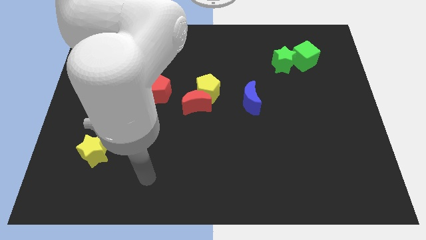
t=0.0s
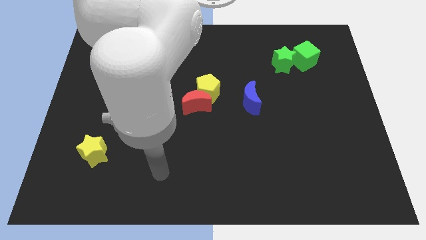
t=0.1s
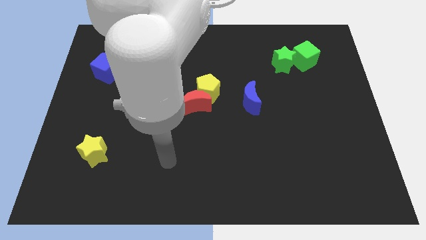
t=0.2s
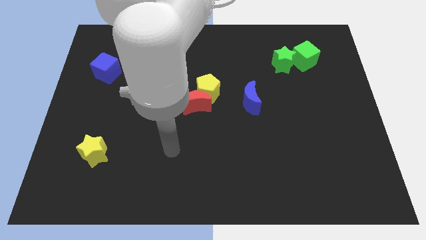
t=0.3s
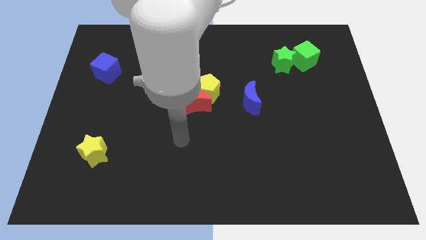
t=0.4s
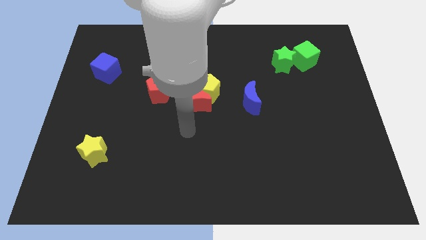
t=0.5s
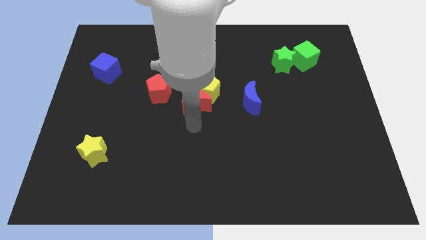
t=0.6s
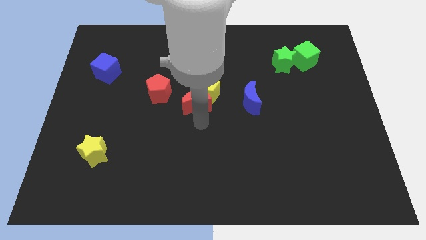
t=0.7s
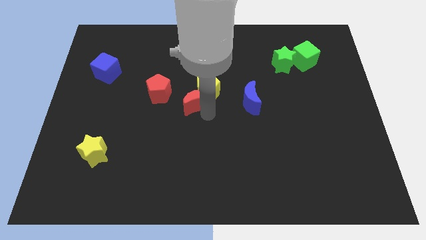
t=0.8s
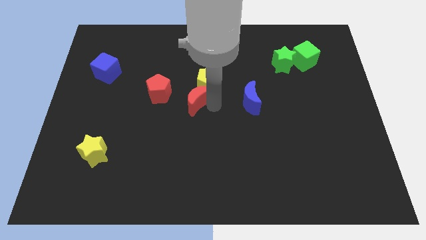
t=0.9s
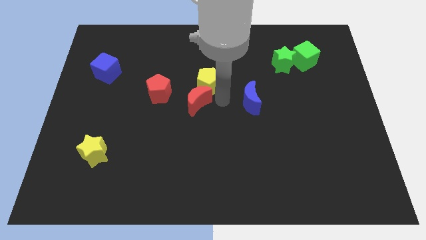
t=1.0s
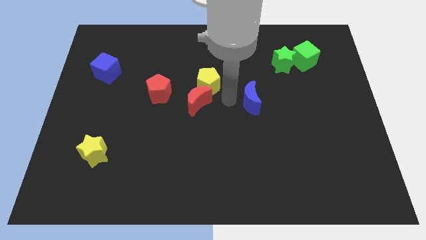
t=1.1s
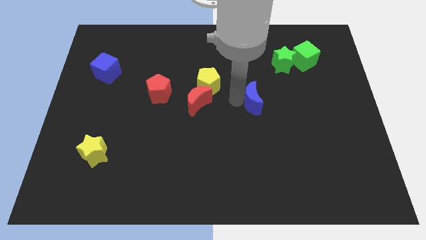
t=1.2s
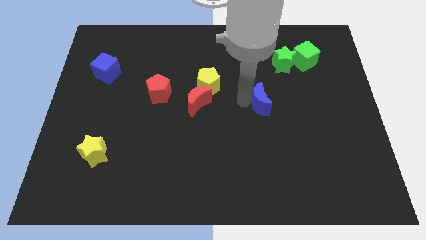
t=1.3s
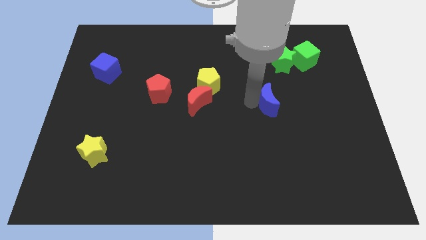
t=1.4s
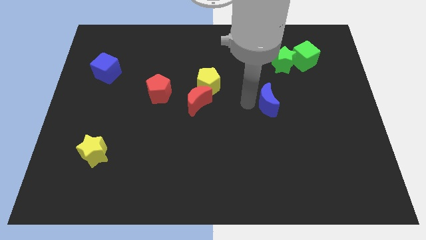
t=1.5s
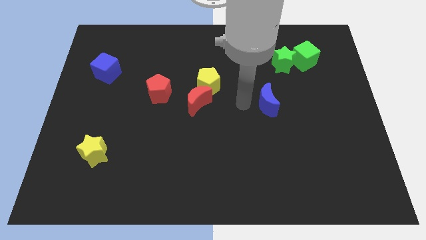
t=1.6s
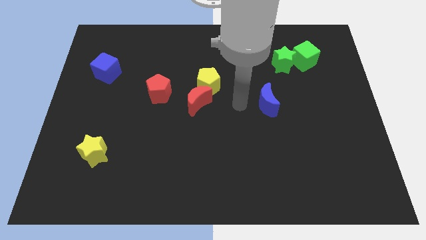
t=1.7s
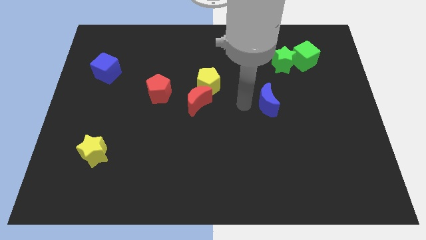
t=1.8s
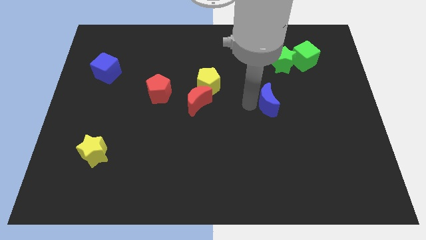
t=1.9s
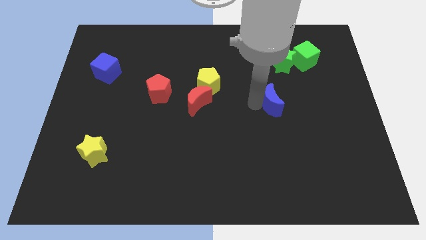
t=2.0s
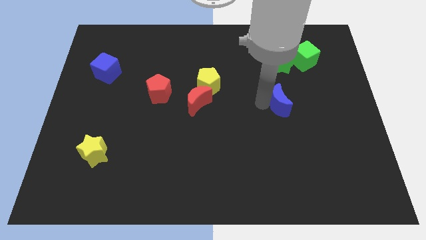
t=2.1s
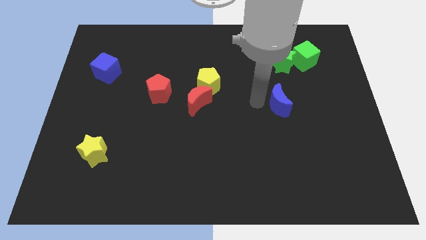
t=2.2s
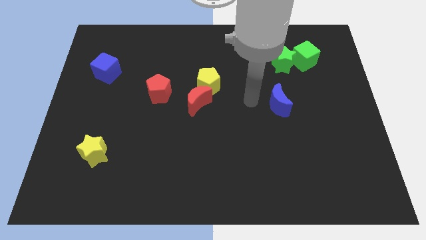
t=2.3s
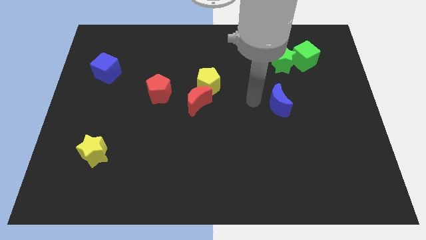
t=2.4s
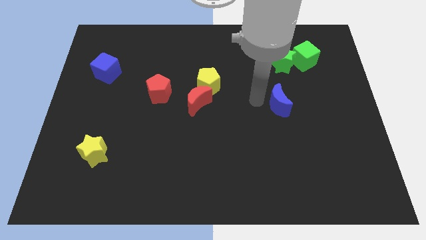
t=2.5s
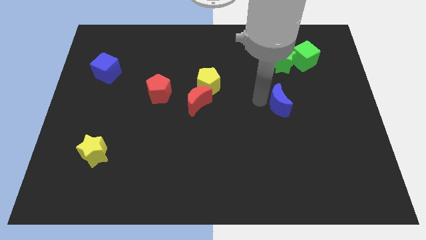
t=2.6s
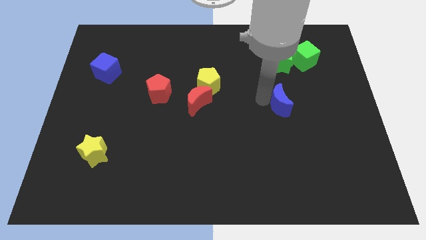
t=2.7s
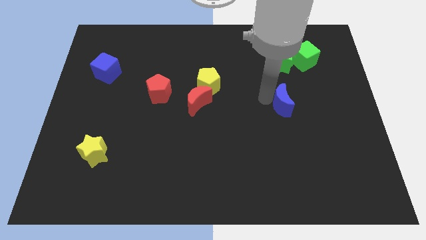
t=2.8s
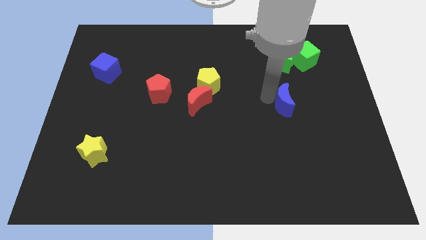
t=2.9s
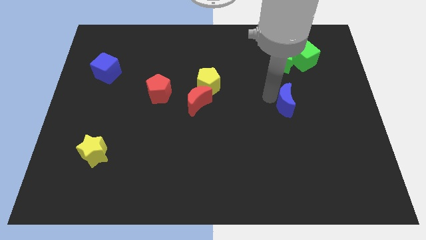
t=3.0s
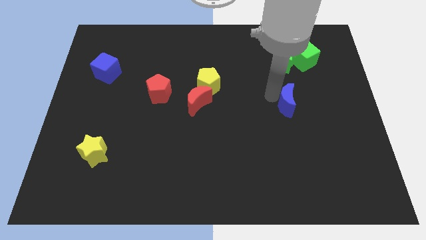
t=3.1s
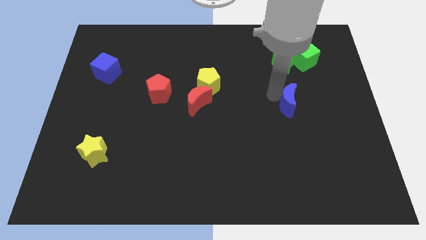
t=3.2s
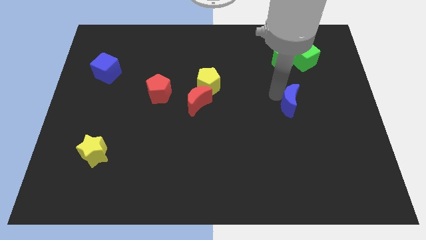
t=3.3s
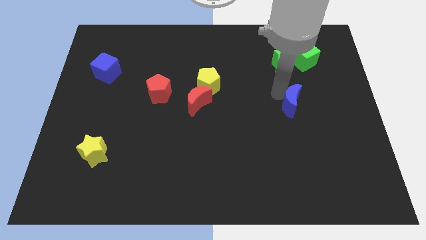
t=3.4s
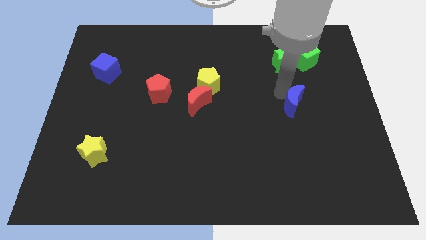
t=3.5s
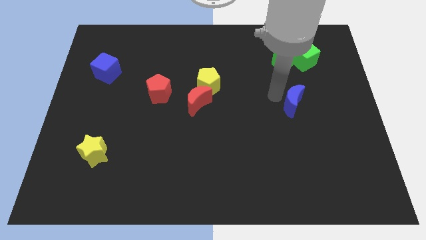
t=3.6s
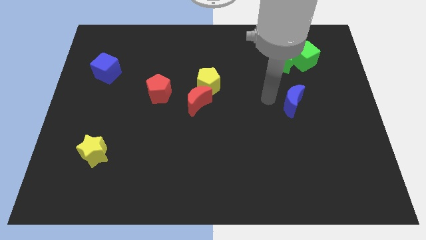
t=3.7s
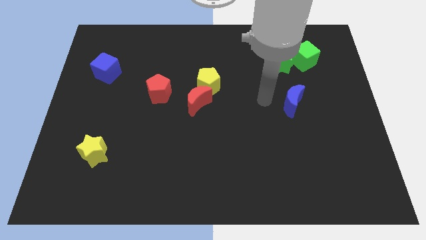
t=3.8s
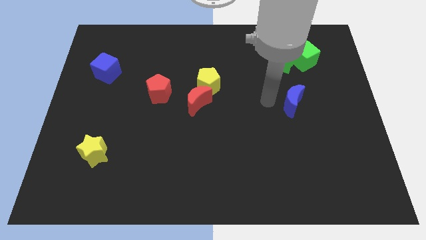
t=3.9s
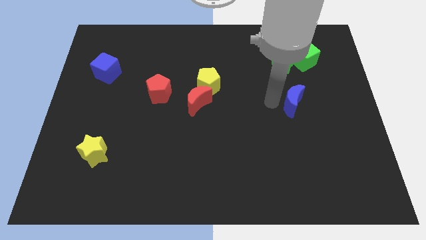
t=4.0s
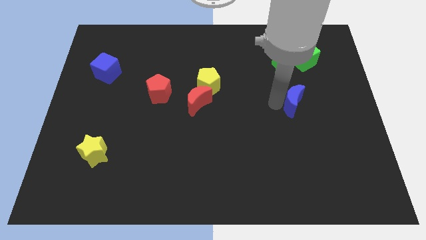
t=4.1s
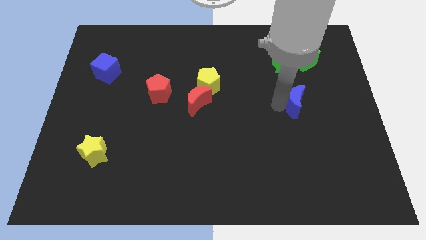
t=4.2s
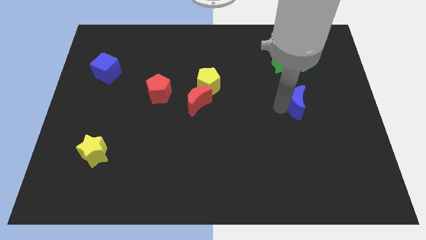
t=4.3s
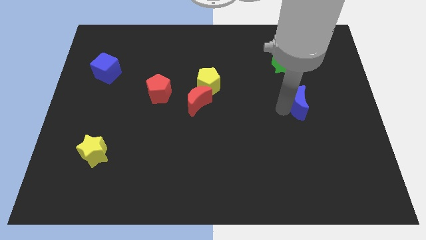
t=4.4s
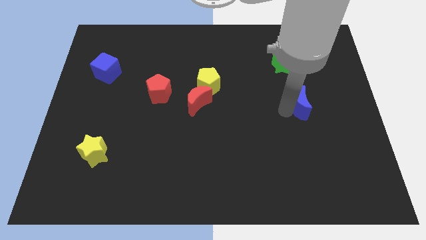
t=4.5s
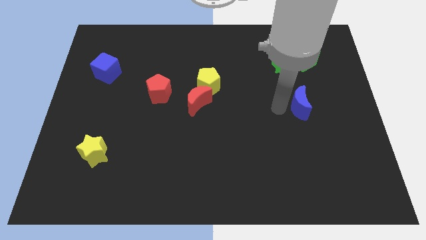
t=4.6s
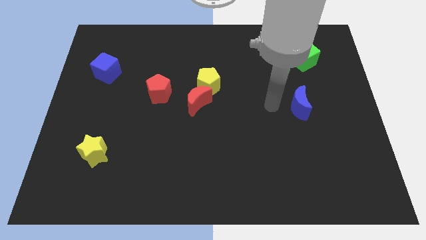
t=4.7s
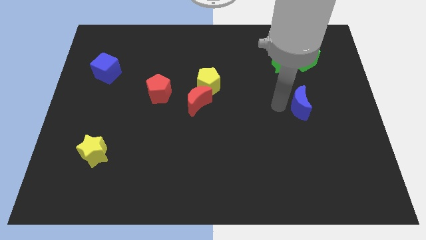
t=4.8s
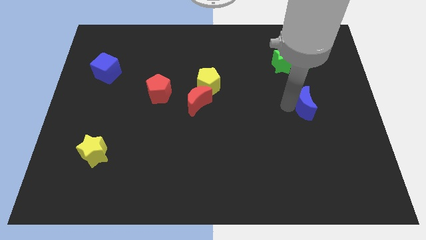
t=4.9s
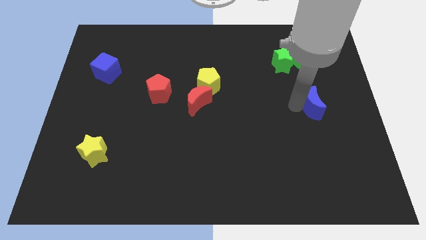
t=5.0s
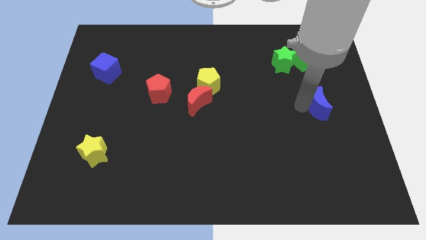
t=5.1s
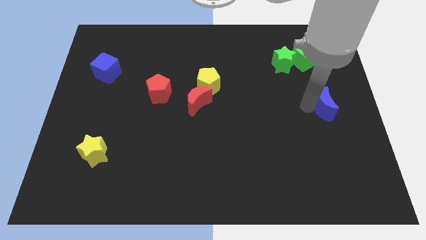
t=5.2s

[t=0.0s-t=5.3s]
put the blue moon to the center right

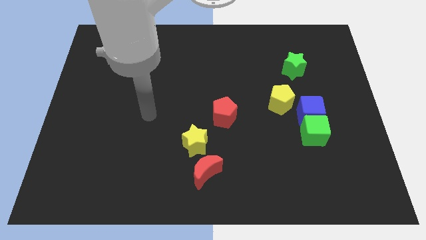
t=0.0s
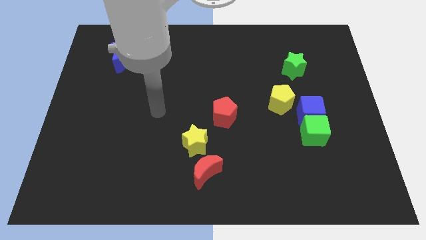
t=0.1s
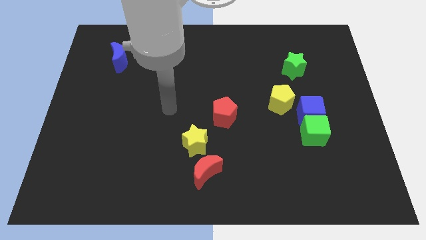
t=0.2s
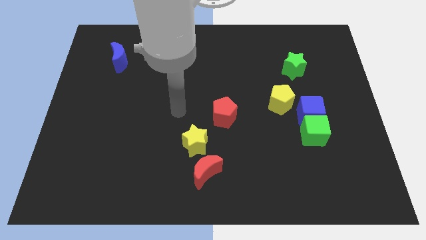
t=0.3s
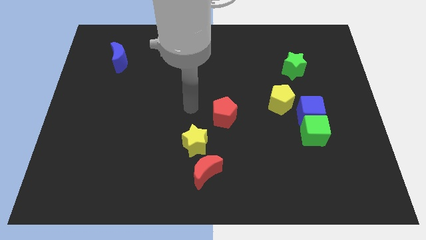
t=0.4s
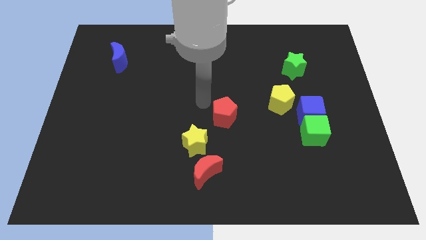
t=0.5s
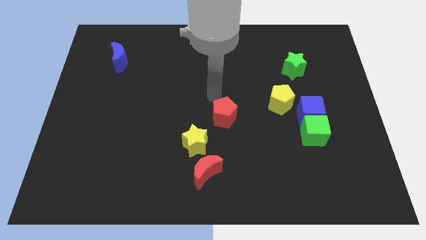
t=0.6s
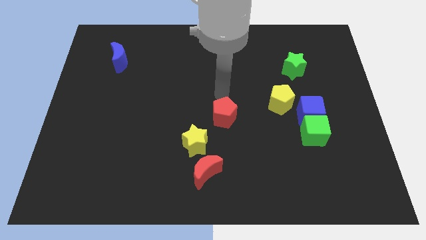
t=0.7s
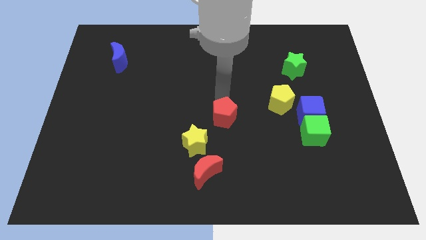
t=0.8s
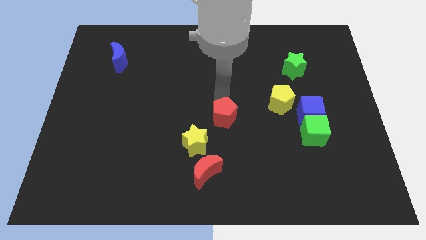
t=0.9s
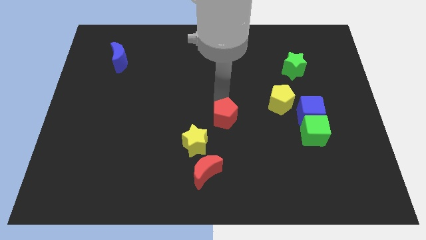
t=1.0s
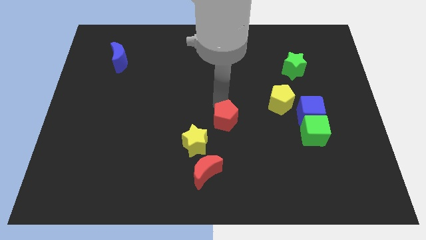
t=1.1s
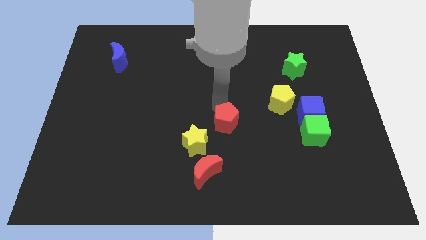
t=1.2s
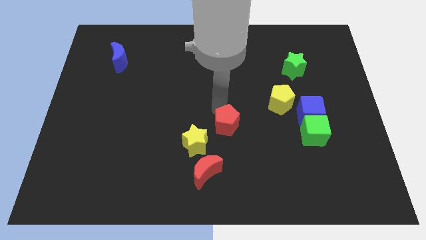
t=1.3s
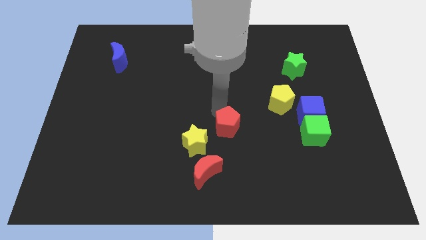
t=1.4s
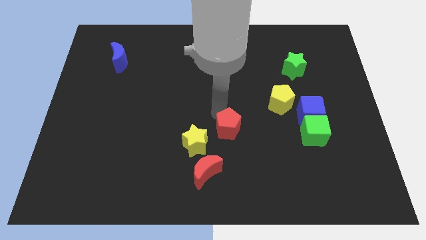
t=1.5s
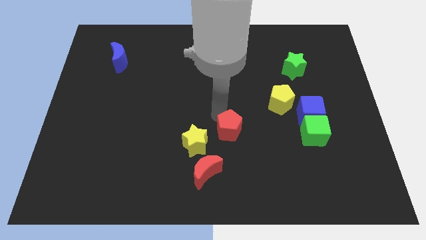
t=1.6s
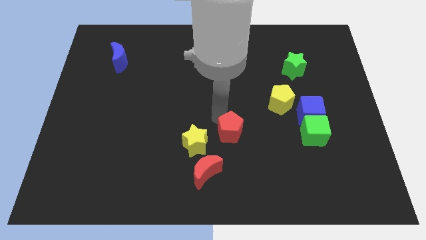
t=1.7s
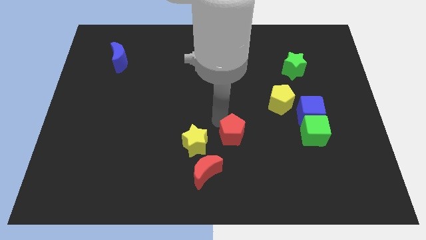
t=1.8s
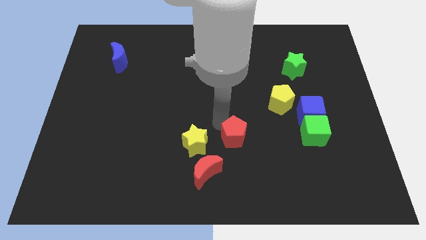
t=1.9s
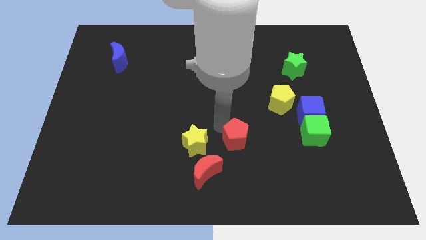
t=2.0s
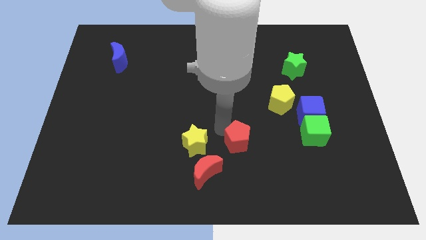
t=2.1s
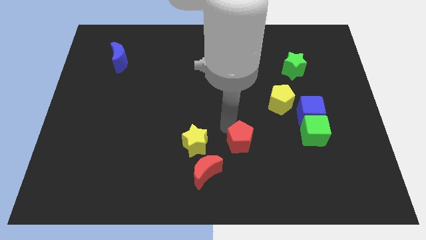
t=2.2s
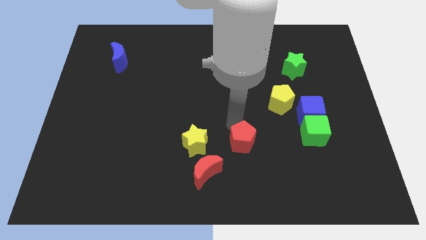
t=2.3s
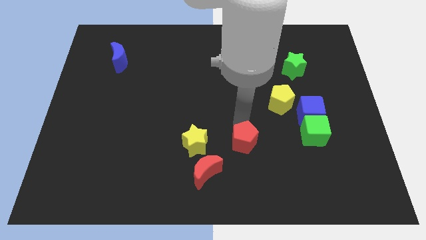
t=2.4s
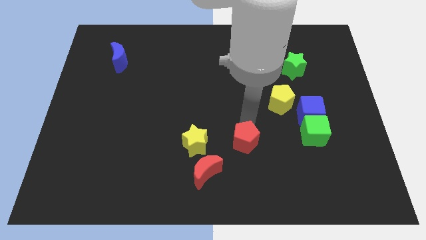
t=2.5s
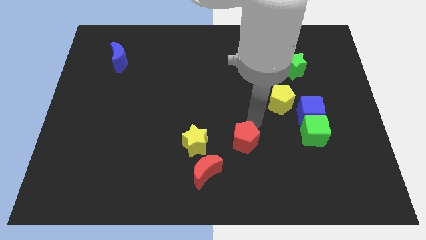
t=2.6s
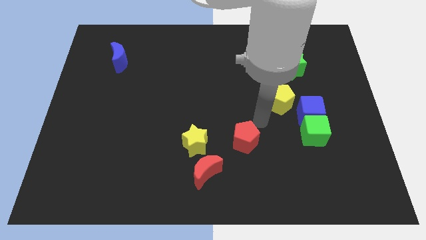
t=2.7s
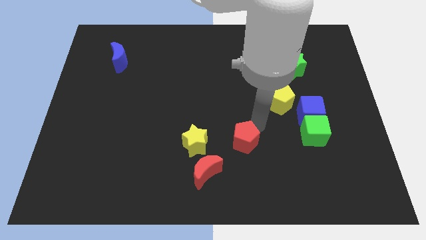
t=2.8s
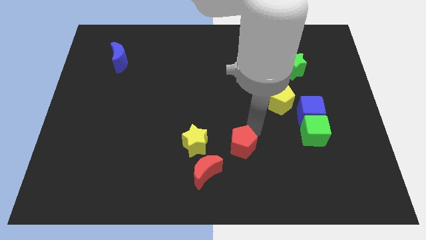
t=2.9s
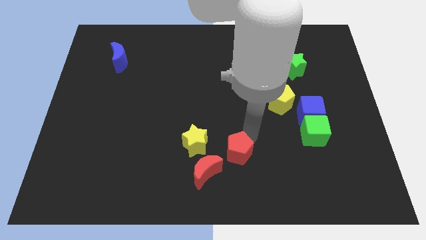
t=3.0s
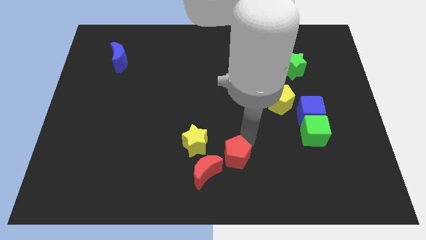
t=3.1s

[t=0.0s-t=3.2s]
slide the red pentagon to the bottom
